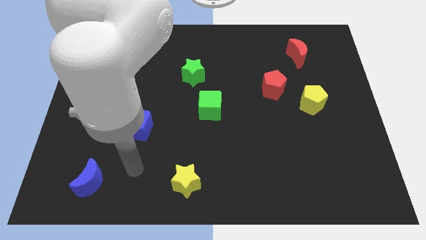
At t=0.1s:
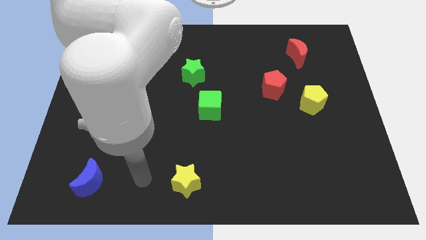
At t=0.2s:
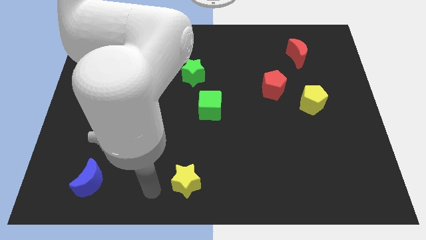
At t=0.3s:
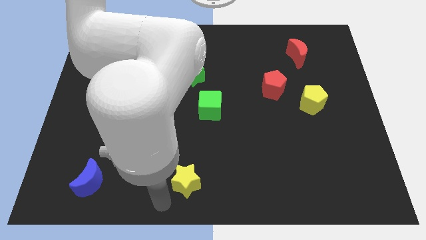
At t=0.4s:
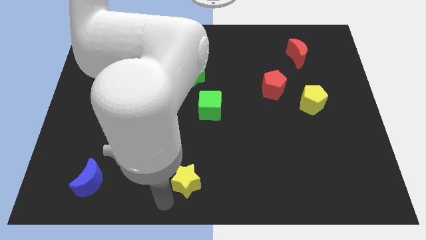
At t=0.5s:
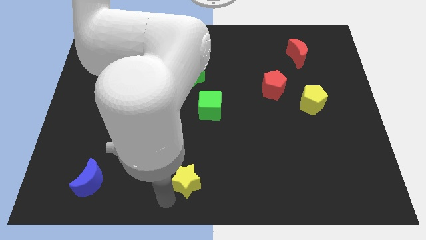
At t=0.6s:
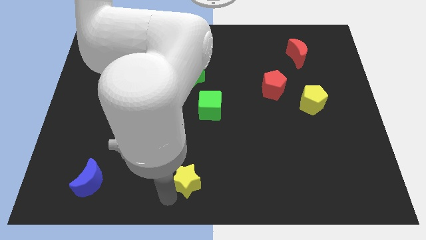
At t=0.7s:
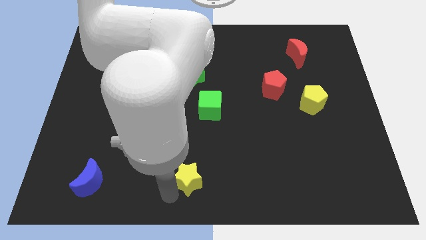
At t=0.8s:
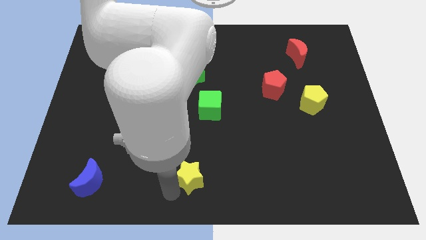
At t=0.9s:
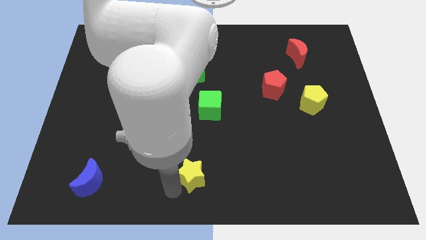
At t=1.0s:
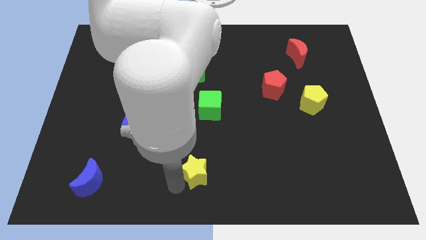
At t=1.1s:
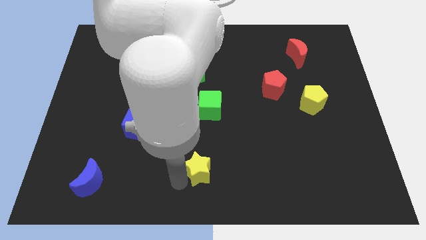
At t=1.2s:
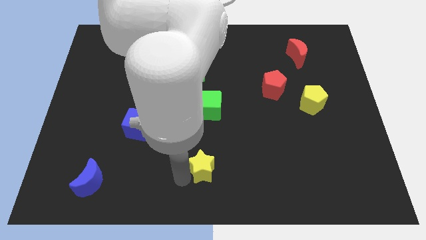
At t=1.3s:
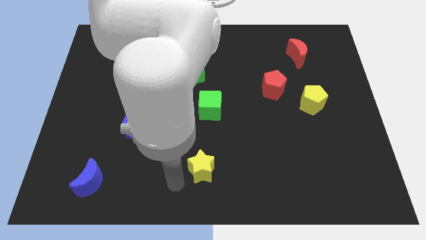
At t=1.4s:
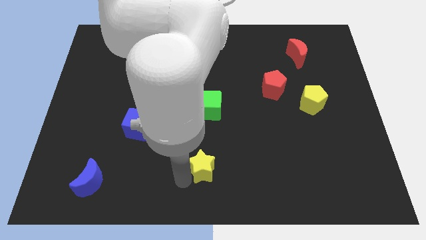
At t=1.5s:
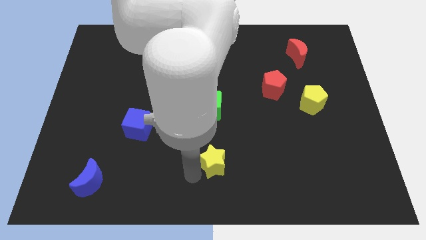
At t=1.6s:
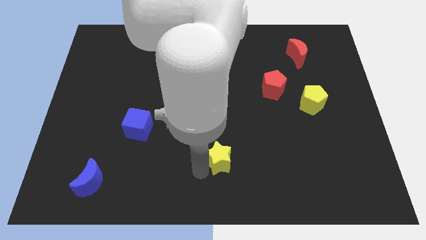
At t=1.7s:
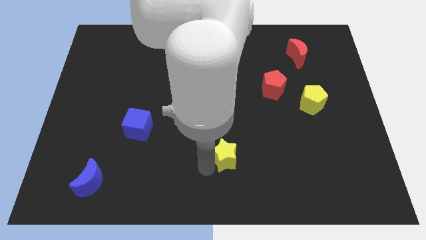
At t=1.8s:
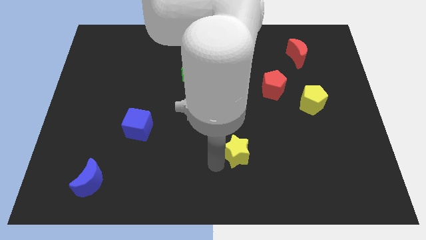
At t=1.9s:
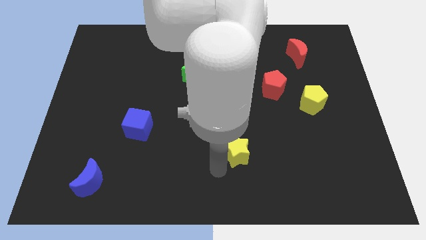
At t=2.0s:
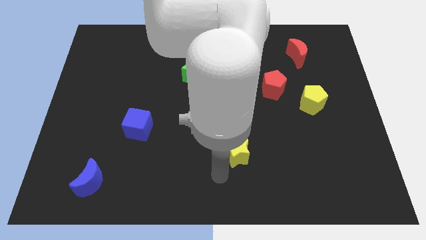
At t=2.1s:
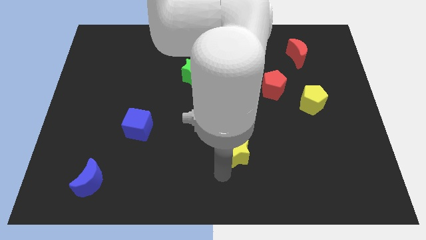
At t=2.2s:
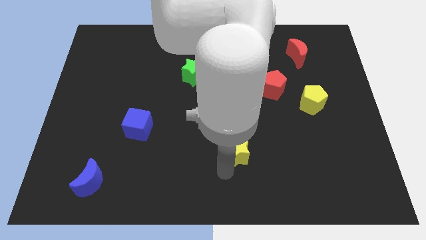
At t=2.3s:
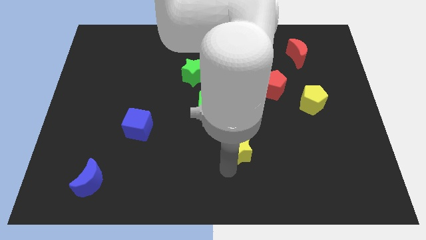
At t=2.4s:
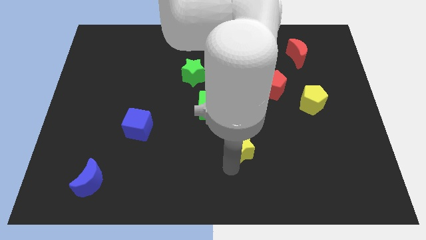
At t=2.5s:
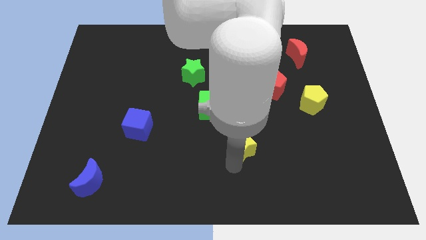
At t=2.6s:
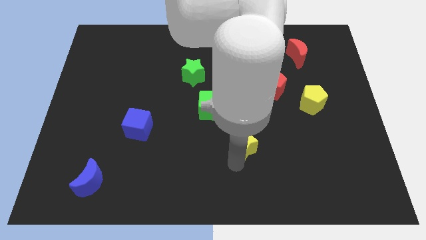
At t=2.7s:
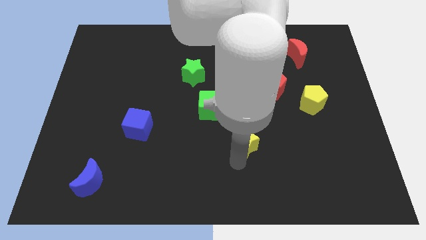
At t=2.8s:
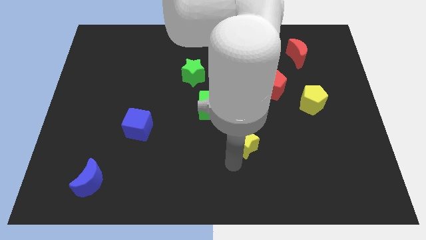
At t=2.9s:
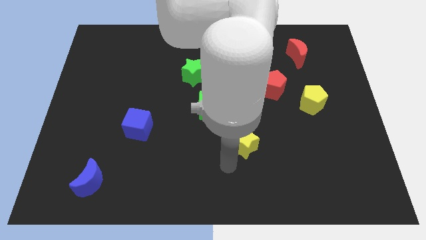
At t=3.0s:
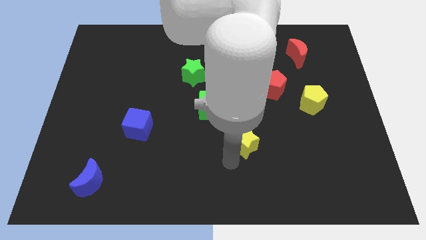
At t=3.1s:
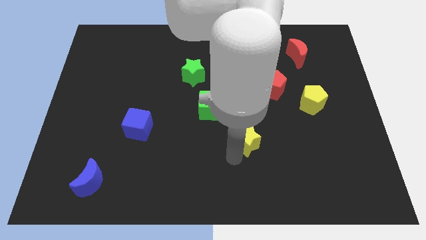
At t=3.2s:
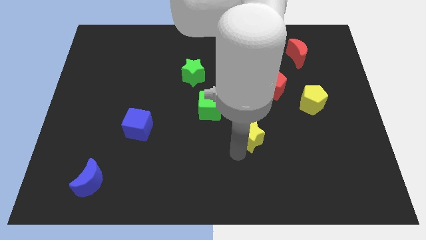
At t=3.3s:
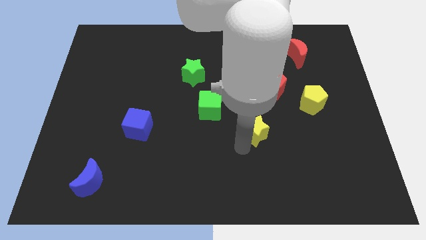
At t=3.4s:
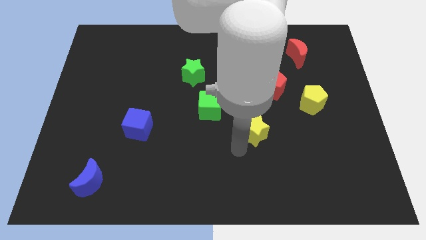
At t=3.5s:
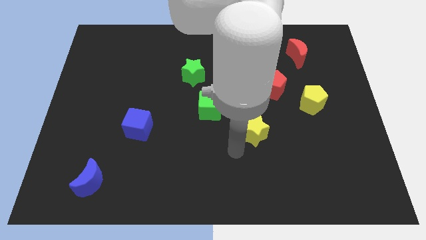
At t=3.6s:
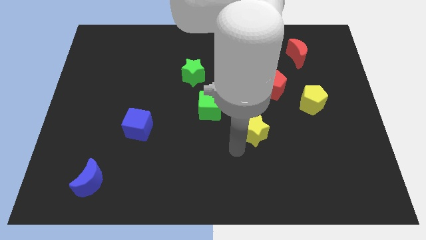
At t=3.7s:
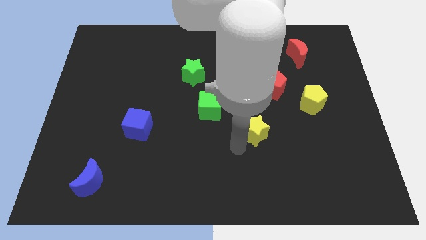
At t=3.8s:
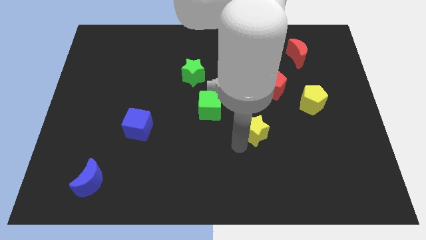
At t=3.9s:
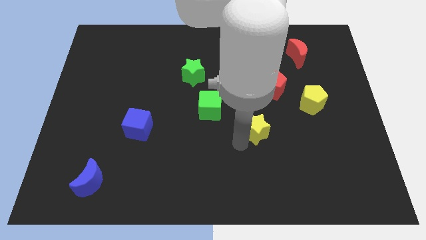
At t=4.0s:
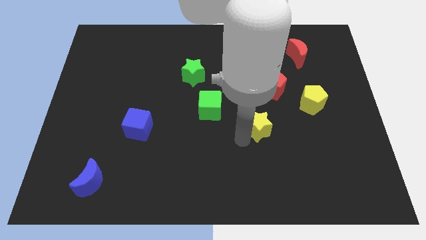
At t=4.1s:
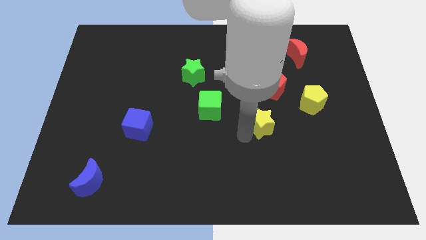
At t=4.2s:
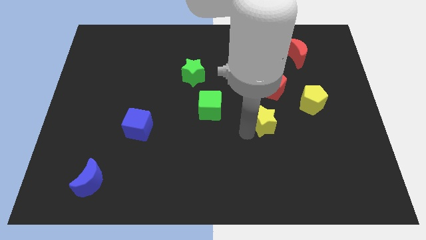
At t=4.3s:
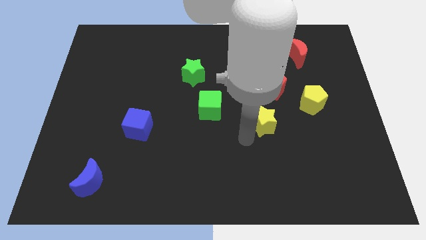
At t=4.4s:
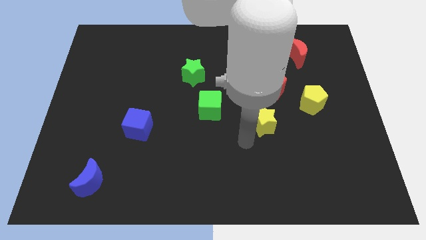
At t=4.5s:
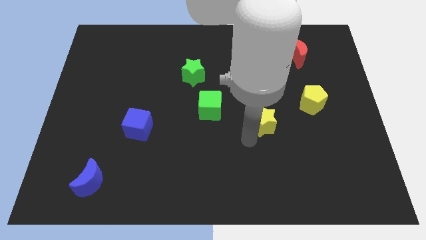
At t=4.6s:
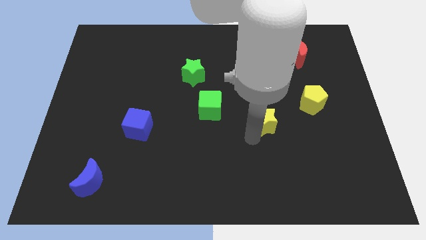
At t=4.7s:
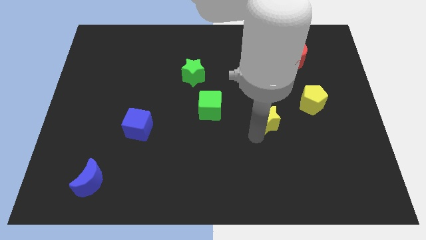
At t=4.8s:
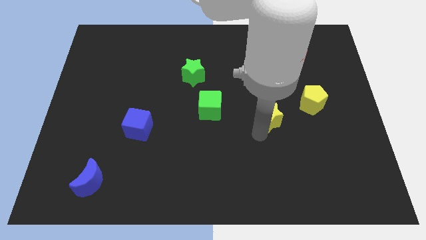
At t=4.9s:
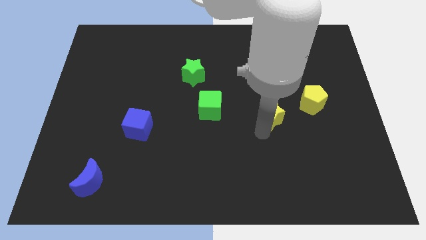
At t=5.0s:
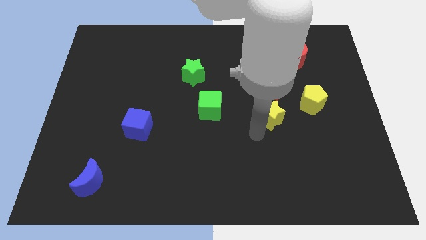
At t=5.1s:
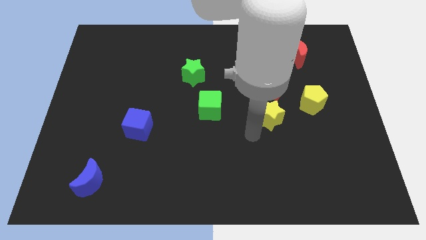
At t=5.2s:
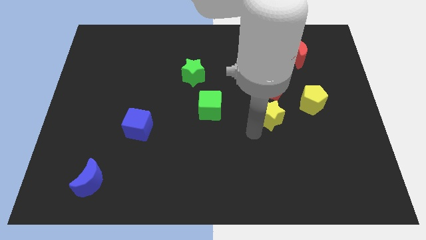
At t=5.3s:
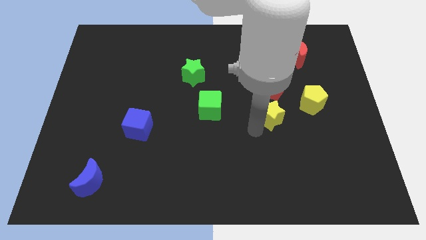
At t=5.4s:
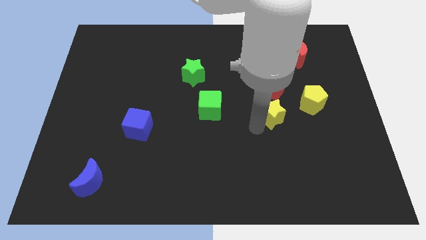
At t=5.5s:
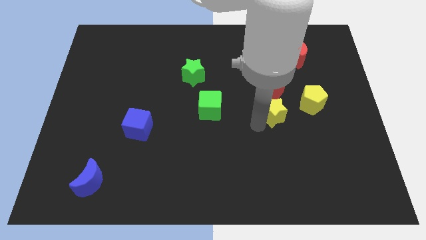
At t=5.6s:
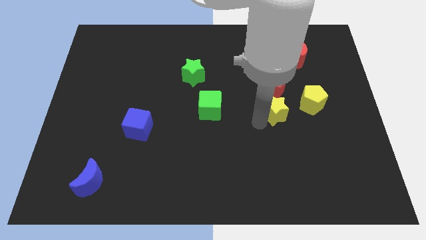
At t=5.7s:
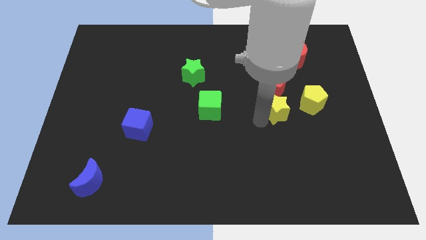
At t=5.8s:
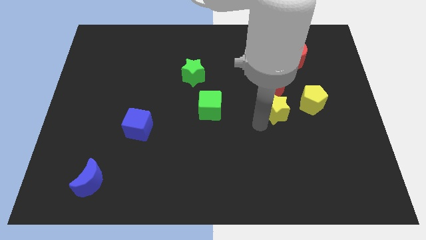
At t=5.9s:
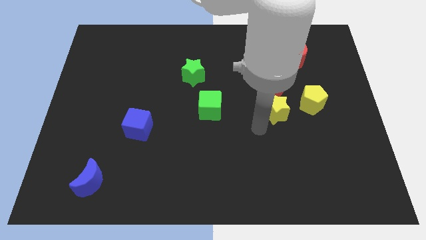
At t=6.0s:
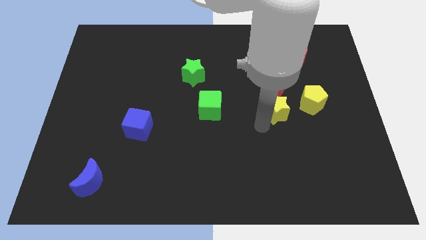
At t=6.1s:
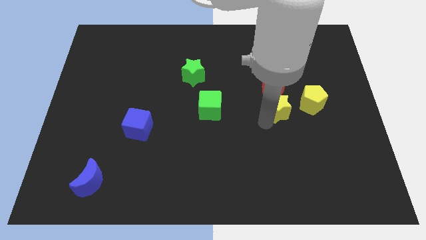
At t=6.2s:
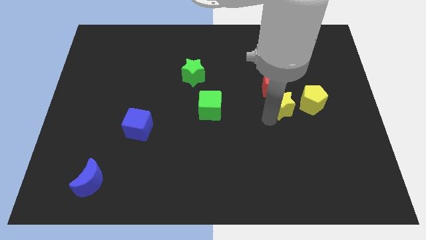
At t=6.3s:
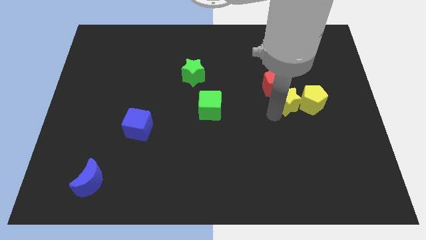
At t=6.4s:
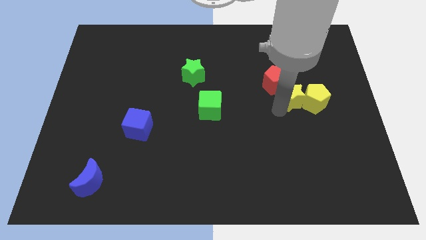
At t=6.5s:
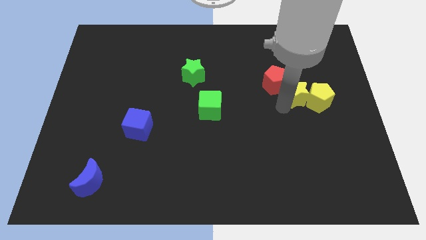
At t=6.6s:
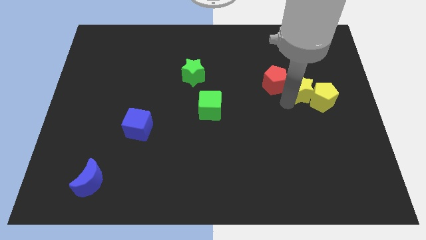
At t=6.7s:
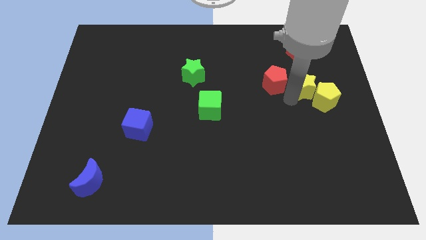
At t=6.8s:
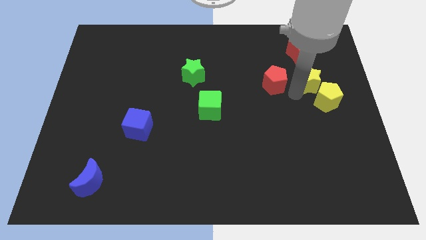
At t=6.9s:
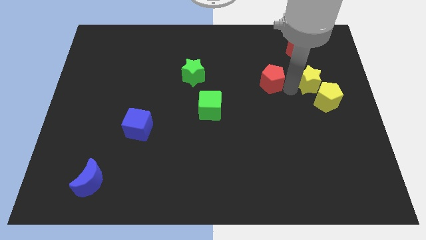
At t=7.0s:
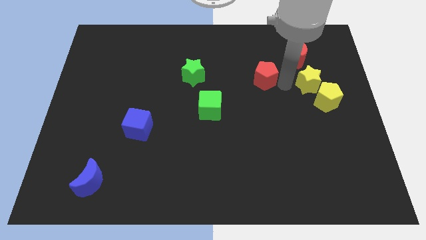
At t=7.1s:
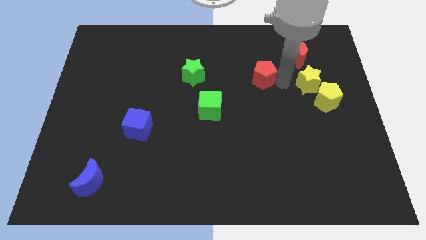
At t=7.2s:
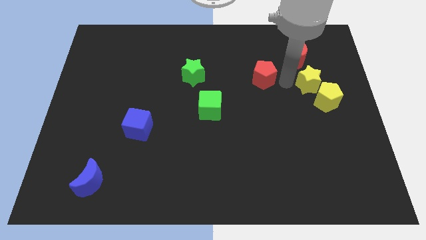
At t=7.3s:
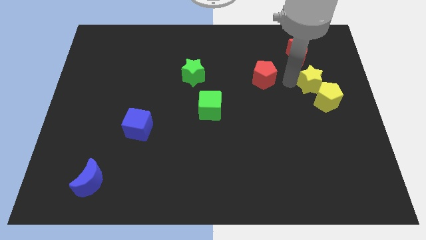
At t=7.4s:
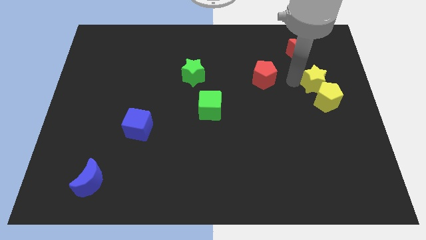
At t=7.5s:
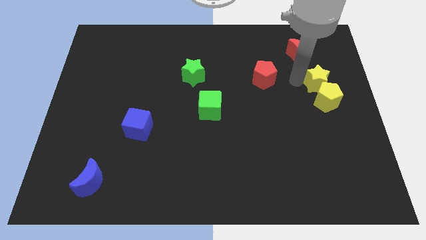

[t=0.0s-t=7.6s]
put the yellow star diagonally up and to the right of the yellow pentagon

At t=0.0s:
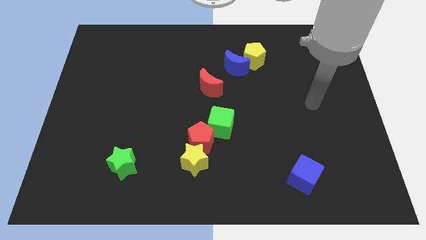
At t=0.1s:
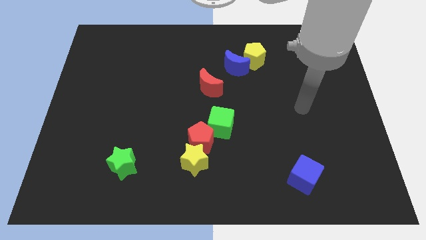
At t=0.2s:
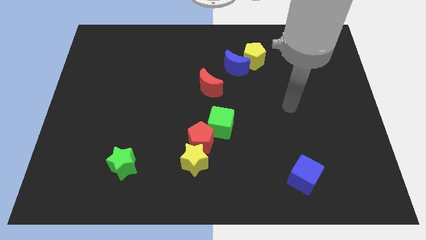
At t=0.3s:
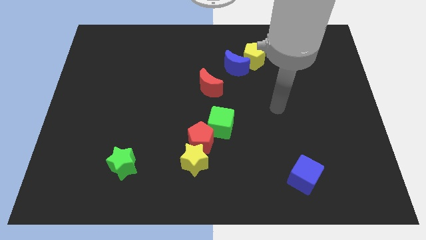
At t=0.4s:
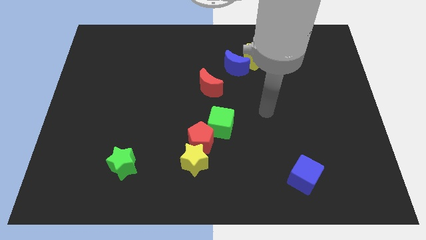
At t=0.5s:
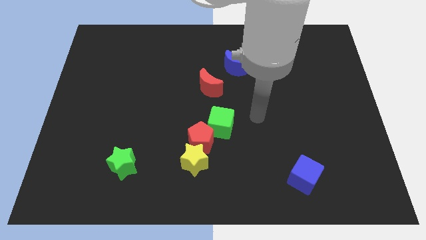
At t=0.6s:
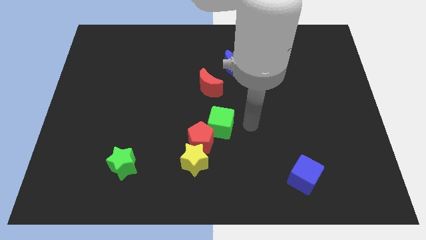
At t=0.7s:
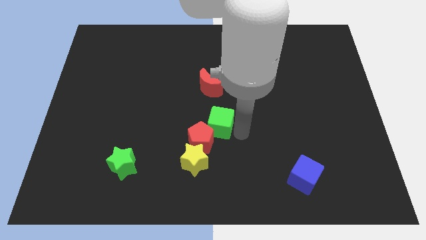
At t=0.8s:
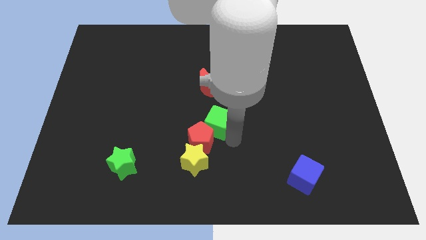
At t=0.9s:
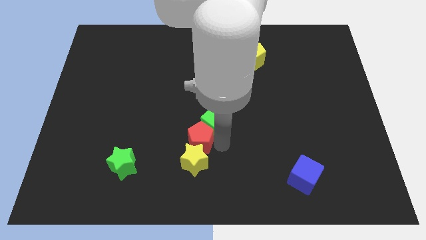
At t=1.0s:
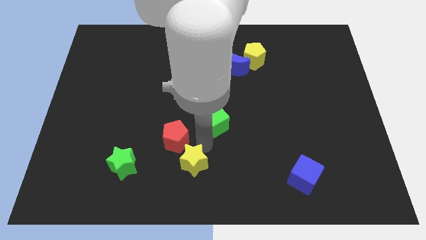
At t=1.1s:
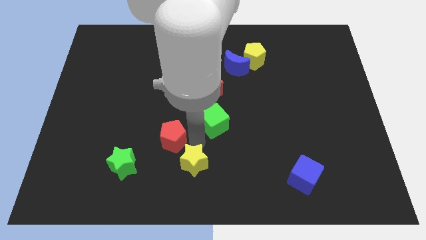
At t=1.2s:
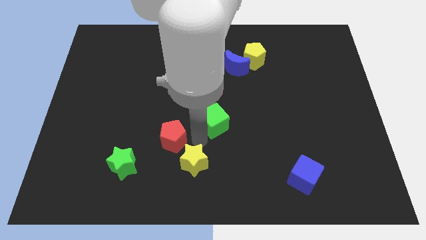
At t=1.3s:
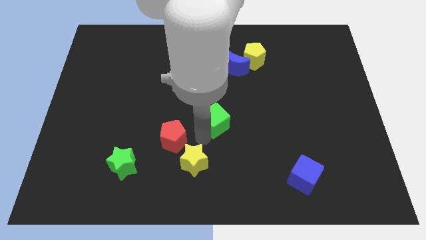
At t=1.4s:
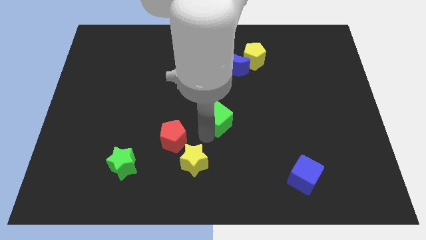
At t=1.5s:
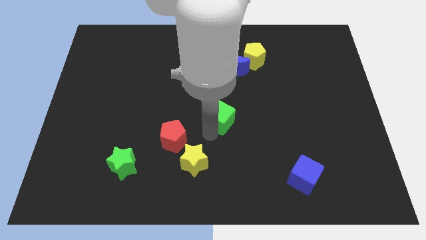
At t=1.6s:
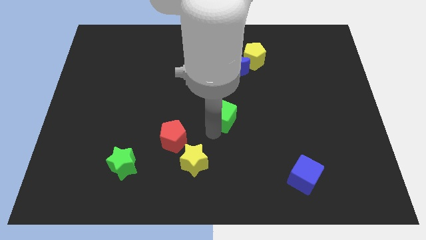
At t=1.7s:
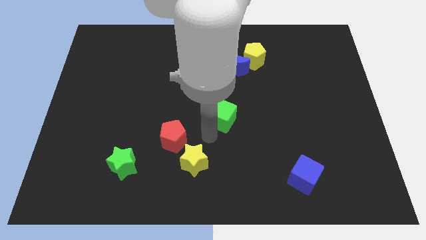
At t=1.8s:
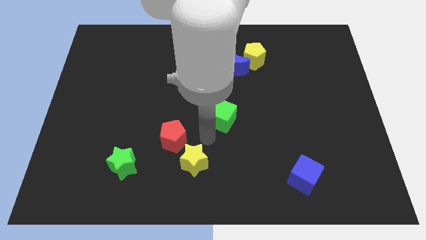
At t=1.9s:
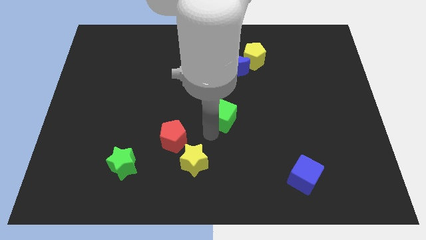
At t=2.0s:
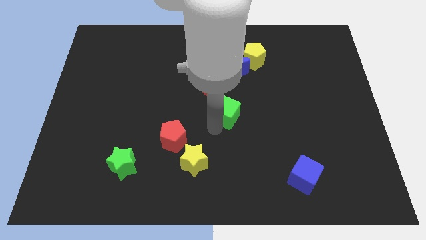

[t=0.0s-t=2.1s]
move the green cube below the blue moon
